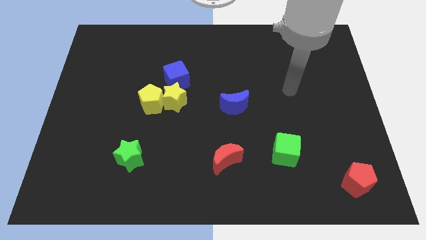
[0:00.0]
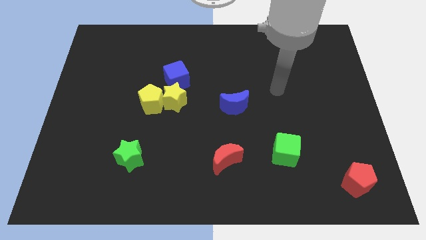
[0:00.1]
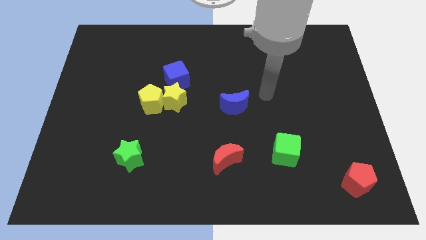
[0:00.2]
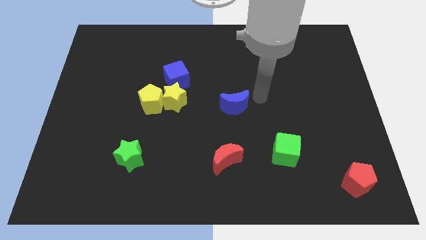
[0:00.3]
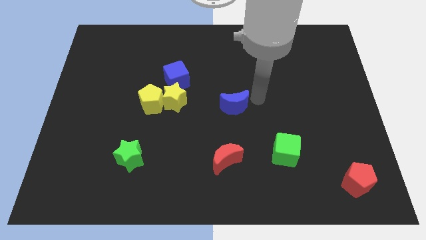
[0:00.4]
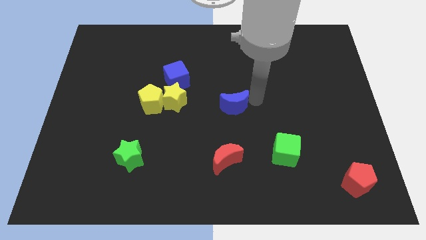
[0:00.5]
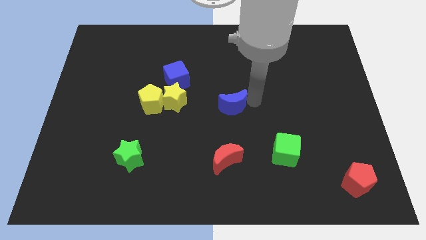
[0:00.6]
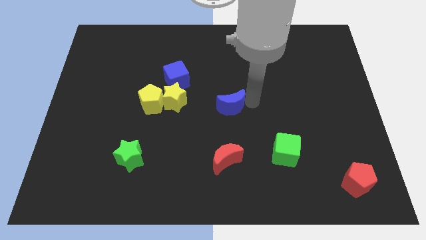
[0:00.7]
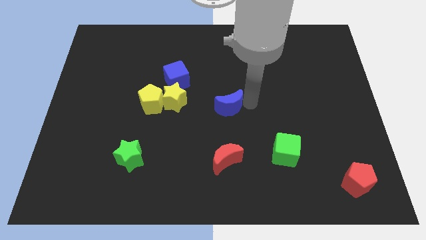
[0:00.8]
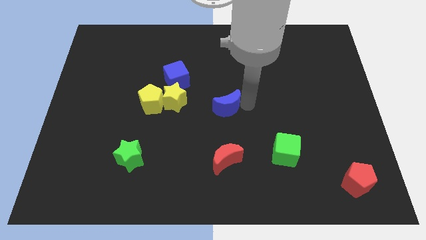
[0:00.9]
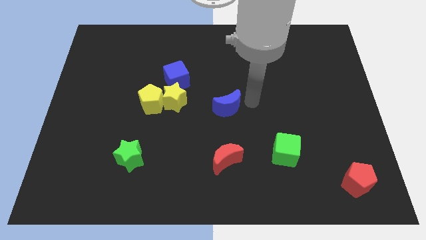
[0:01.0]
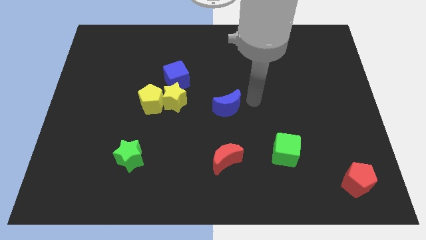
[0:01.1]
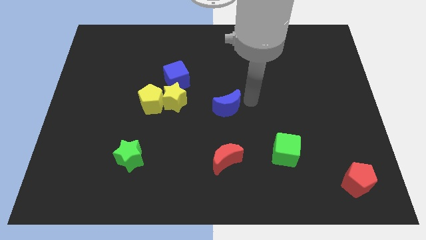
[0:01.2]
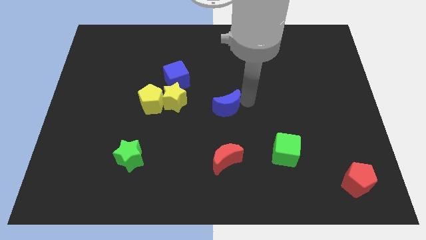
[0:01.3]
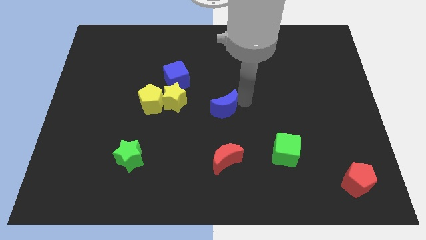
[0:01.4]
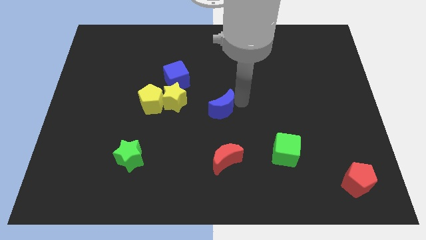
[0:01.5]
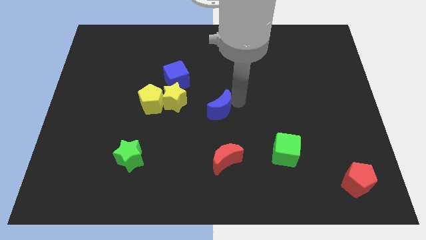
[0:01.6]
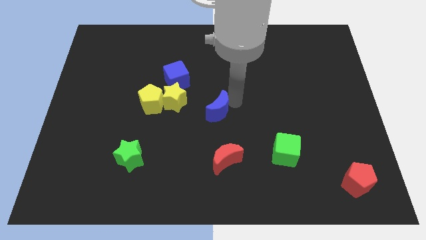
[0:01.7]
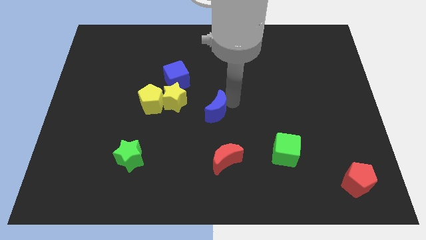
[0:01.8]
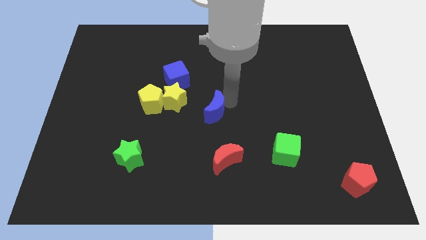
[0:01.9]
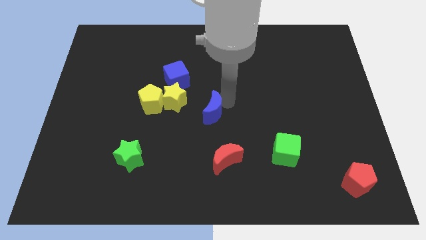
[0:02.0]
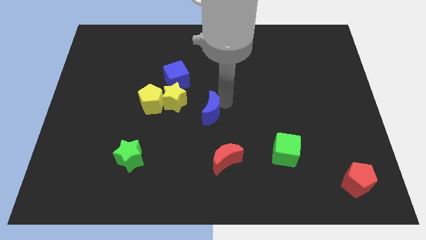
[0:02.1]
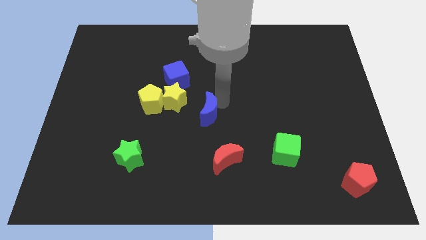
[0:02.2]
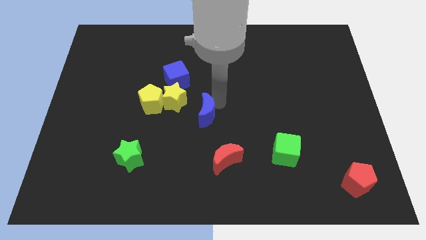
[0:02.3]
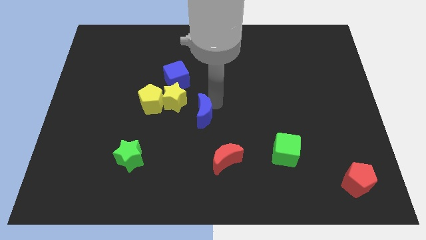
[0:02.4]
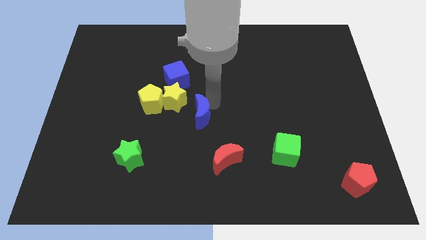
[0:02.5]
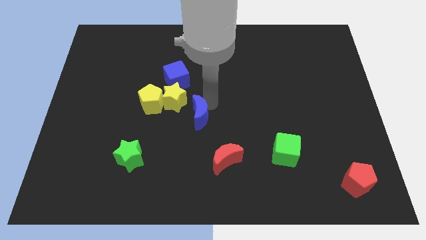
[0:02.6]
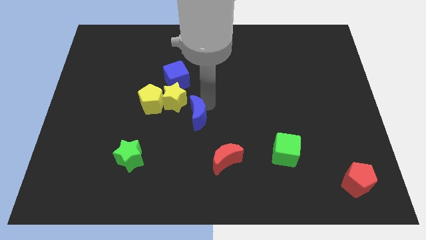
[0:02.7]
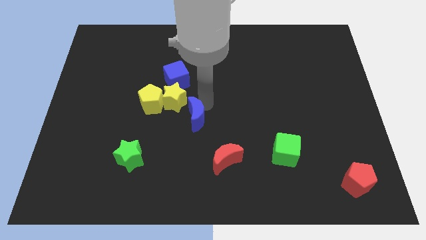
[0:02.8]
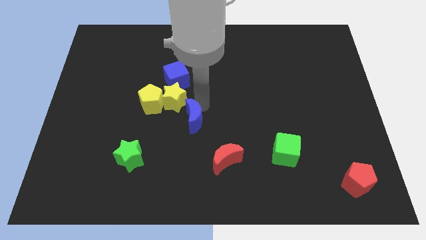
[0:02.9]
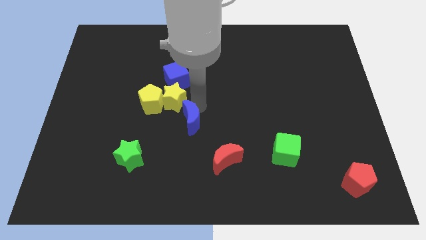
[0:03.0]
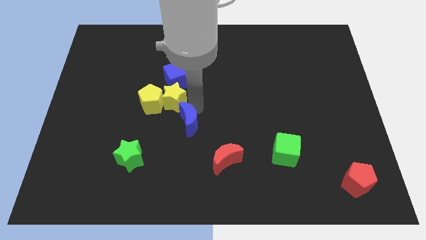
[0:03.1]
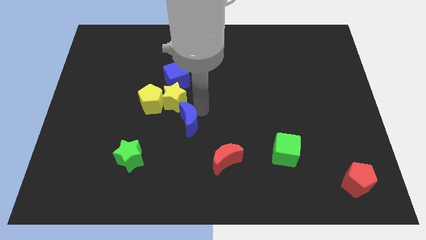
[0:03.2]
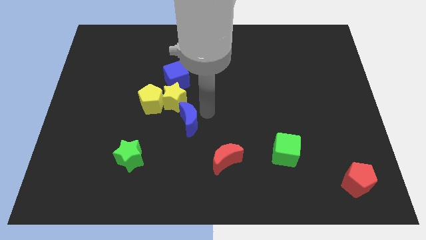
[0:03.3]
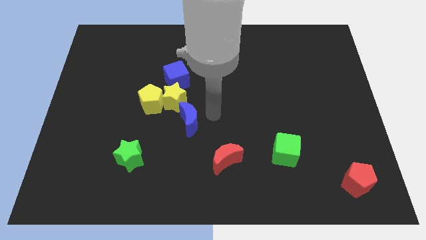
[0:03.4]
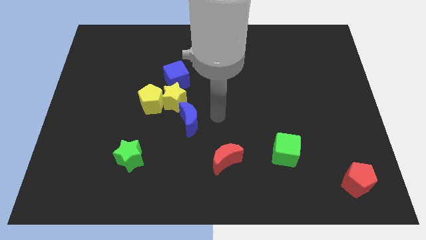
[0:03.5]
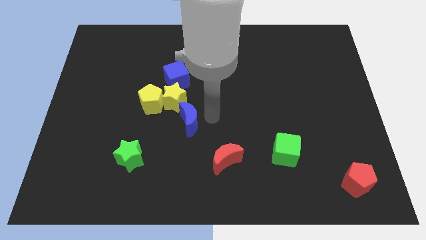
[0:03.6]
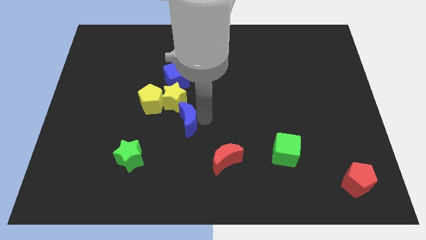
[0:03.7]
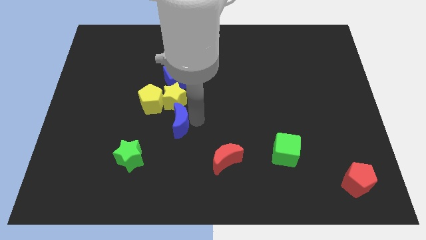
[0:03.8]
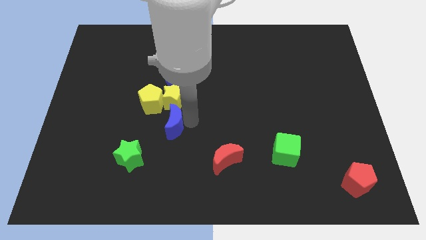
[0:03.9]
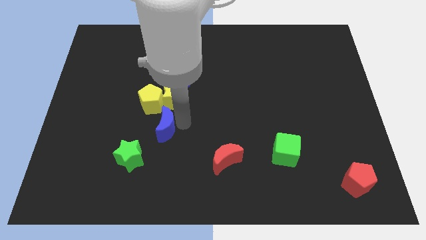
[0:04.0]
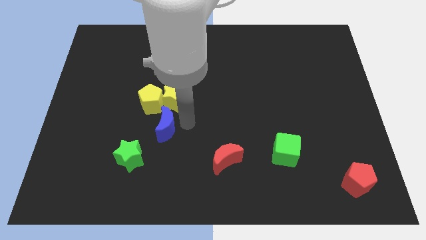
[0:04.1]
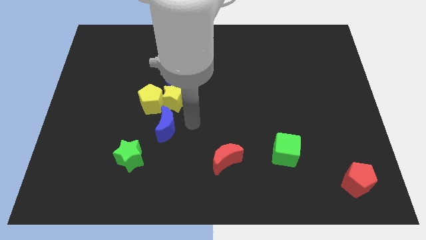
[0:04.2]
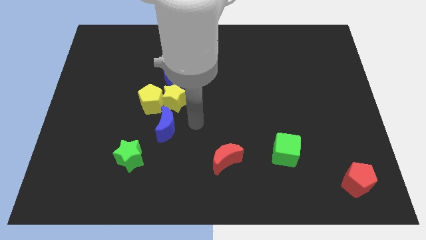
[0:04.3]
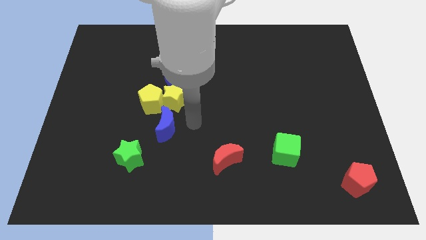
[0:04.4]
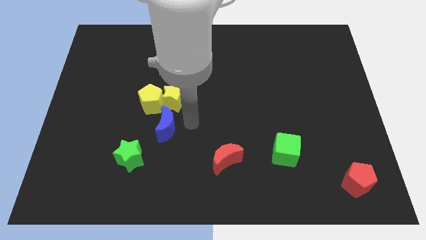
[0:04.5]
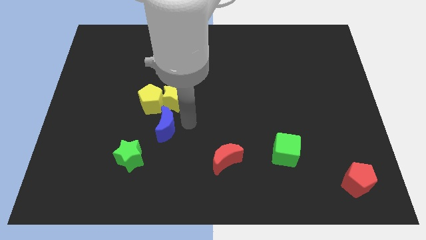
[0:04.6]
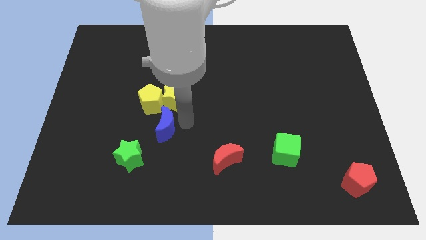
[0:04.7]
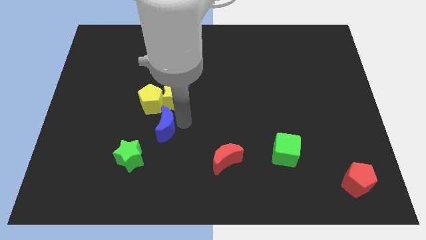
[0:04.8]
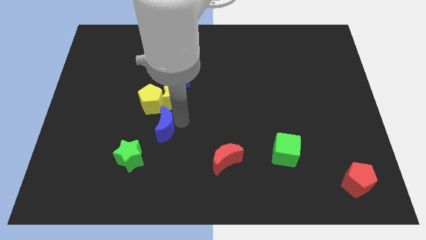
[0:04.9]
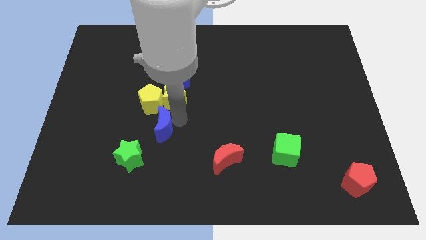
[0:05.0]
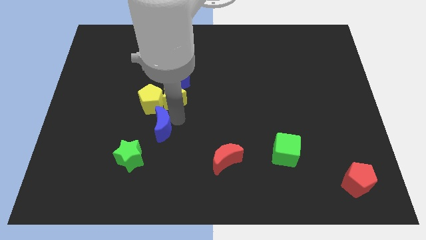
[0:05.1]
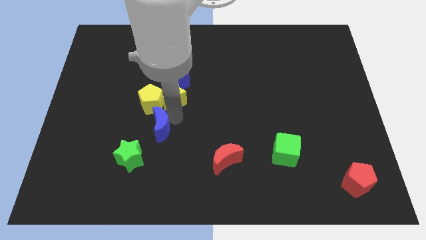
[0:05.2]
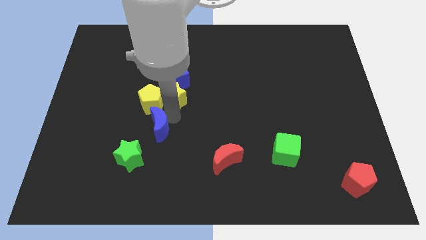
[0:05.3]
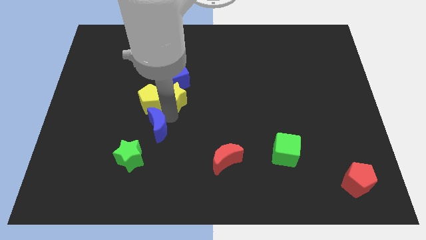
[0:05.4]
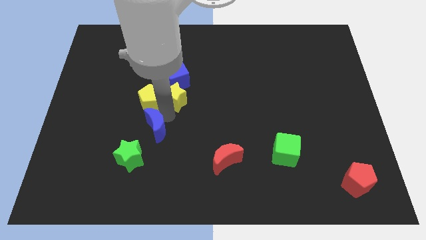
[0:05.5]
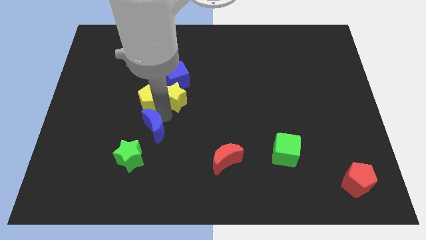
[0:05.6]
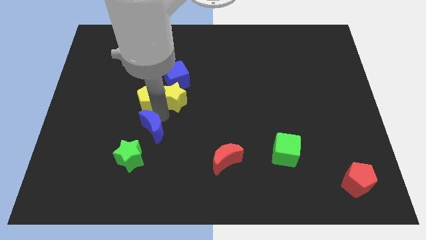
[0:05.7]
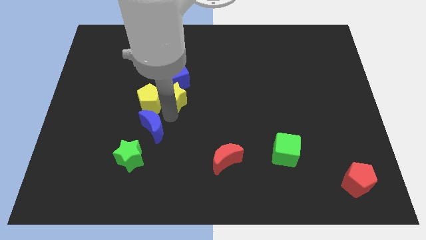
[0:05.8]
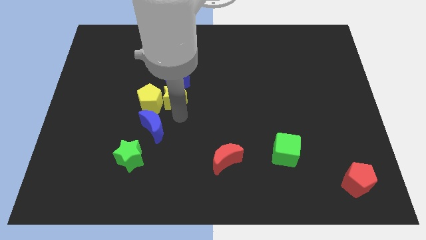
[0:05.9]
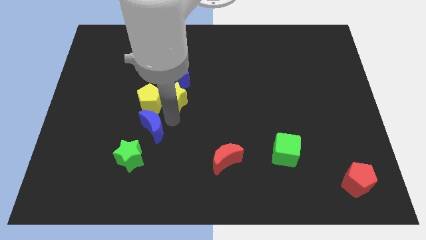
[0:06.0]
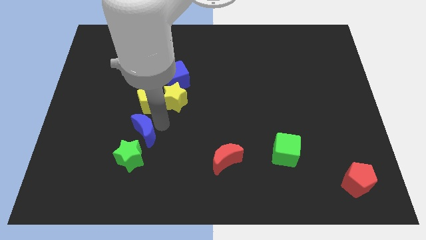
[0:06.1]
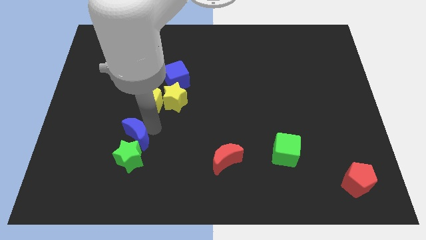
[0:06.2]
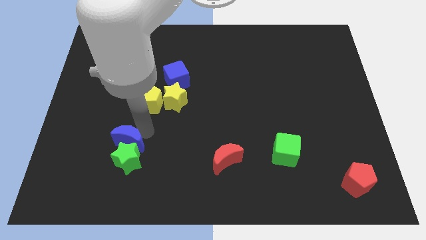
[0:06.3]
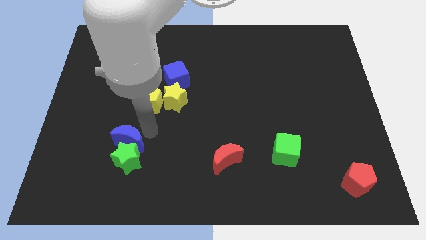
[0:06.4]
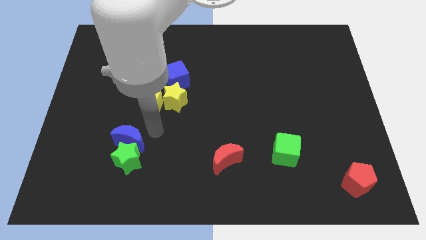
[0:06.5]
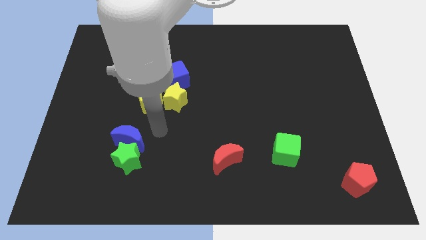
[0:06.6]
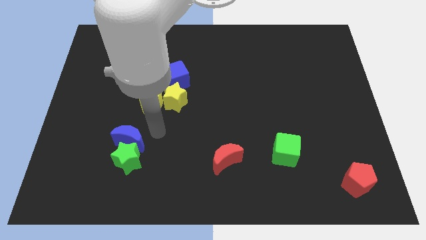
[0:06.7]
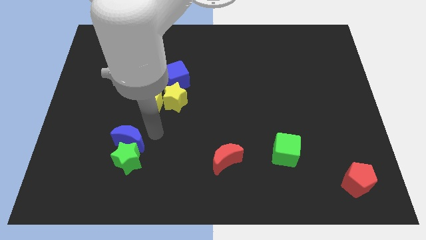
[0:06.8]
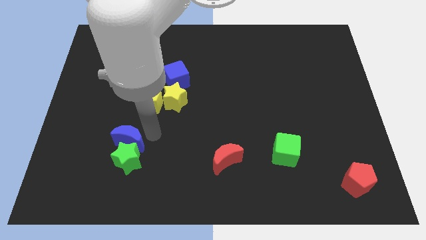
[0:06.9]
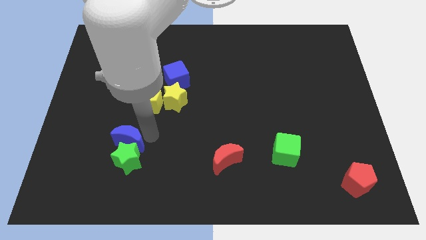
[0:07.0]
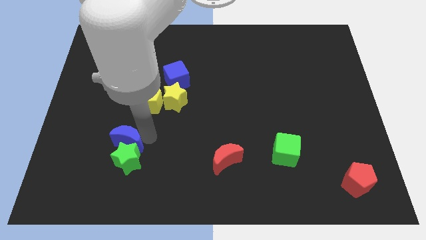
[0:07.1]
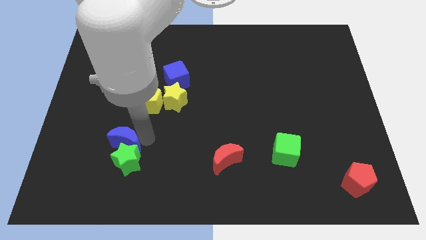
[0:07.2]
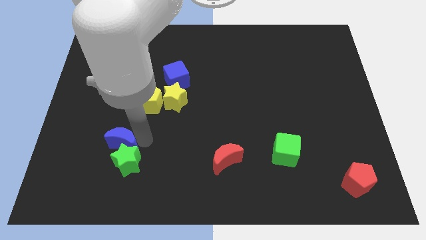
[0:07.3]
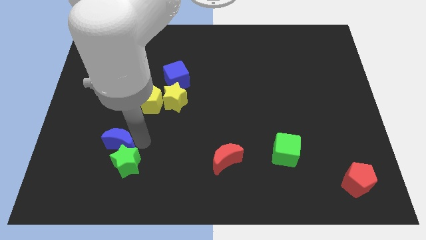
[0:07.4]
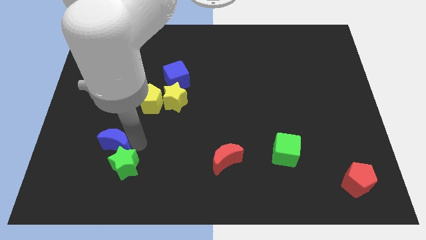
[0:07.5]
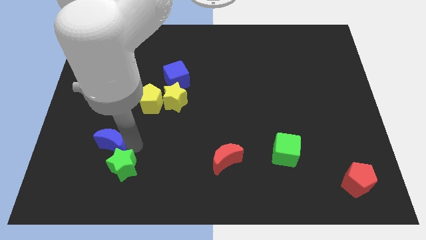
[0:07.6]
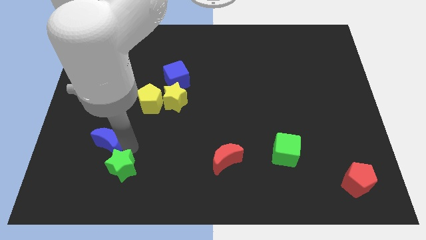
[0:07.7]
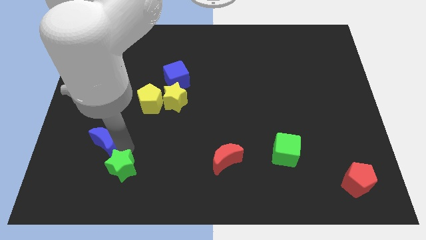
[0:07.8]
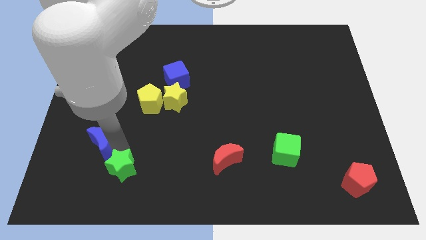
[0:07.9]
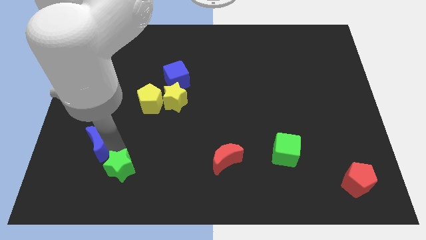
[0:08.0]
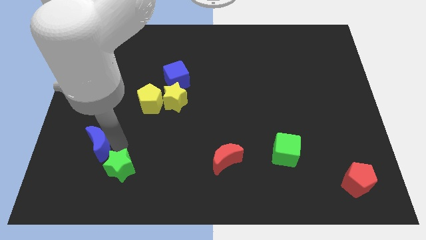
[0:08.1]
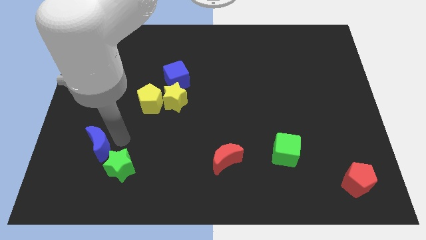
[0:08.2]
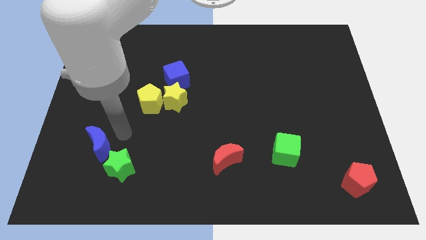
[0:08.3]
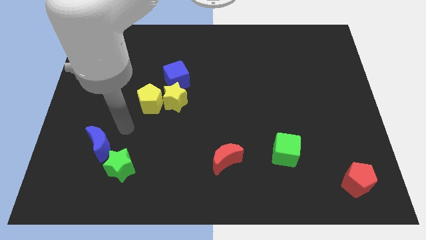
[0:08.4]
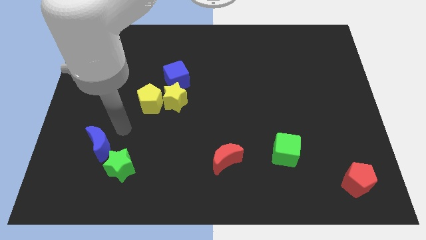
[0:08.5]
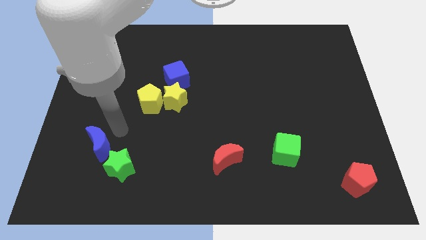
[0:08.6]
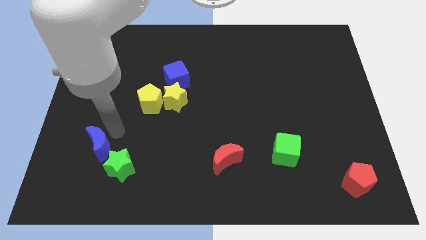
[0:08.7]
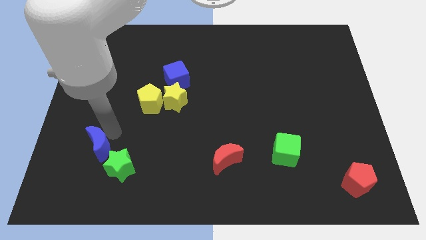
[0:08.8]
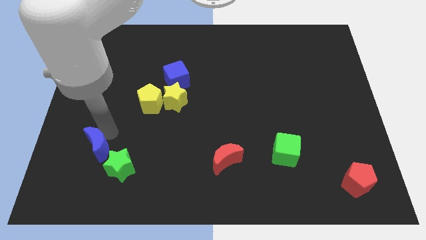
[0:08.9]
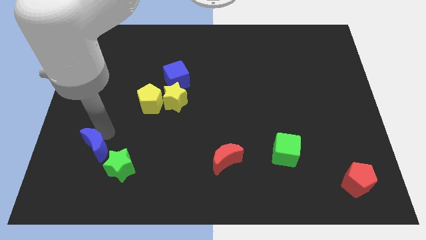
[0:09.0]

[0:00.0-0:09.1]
push the blue moon just left of the green star
